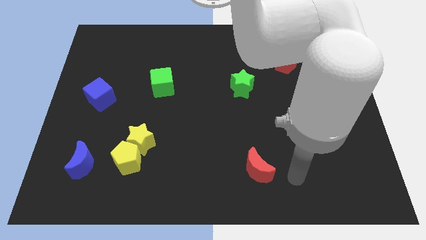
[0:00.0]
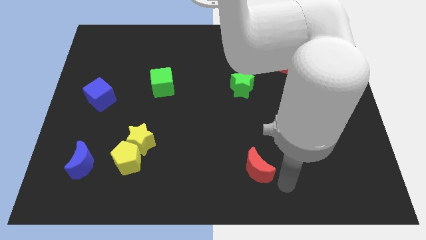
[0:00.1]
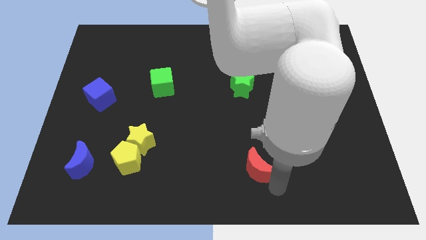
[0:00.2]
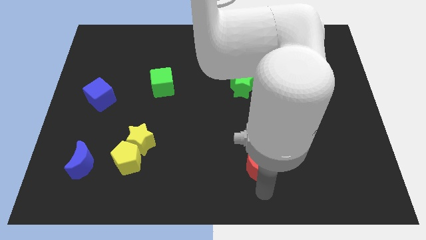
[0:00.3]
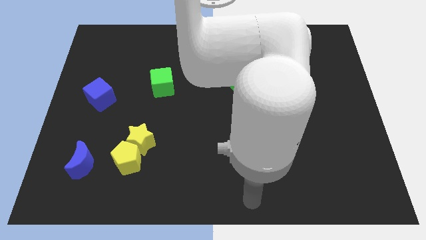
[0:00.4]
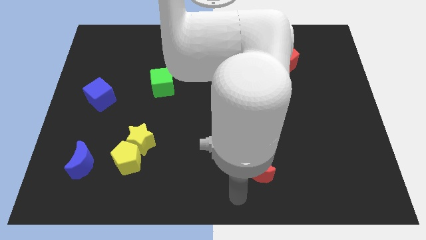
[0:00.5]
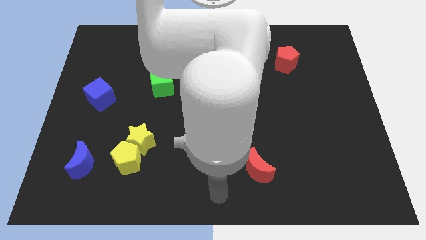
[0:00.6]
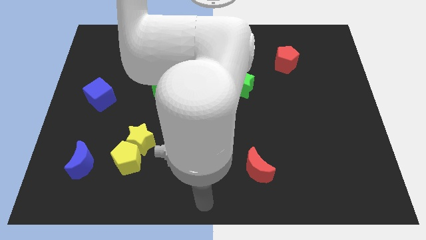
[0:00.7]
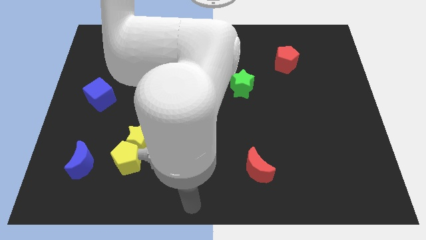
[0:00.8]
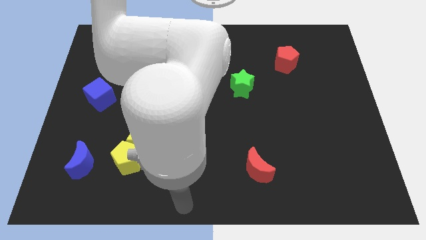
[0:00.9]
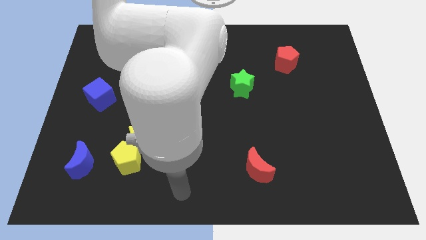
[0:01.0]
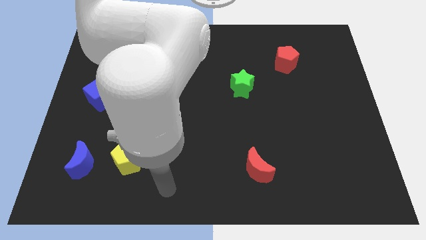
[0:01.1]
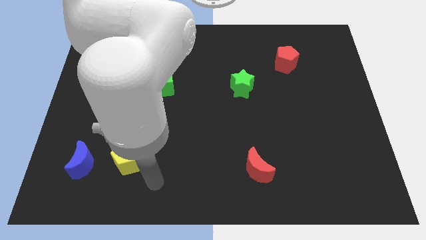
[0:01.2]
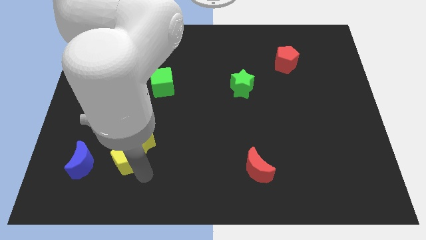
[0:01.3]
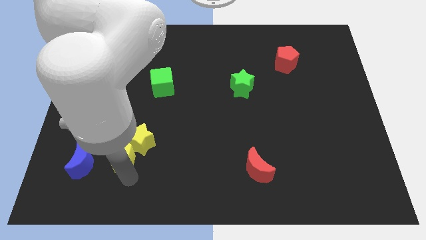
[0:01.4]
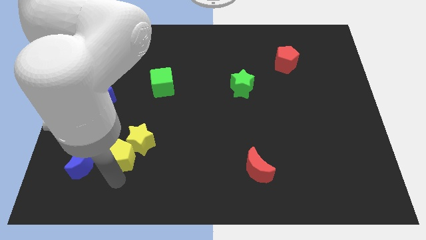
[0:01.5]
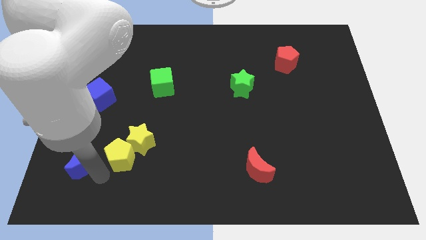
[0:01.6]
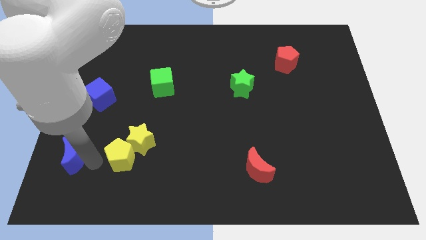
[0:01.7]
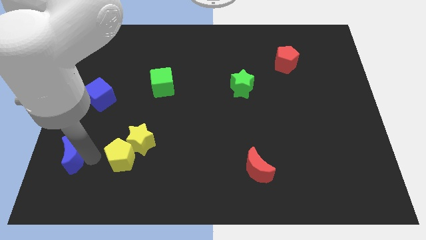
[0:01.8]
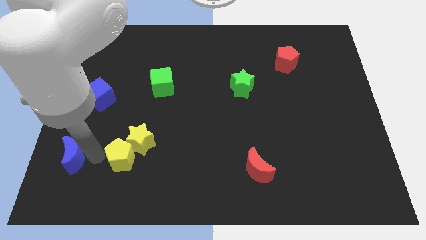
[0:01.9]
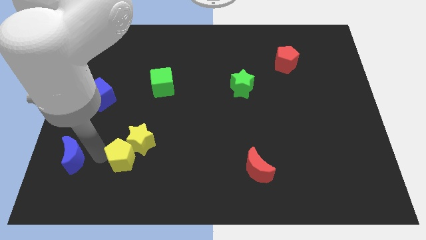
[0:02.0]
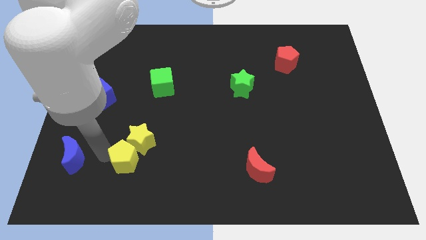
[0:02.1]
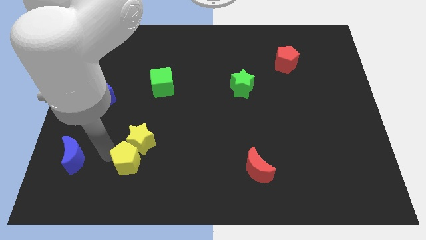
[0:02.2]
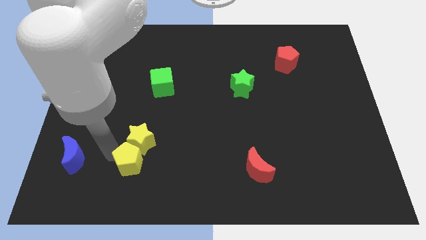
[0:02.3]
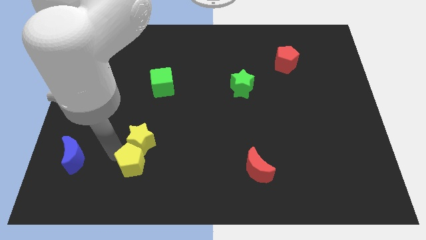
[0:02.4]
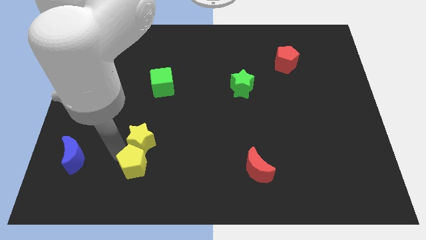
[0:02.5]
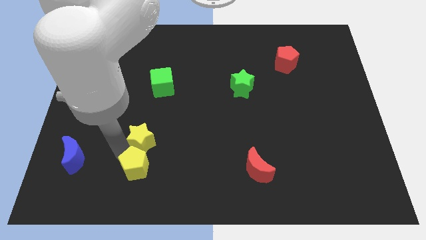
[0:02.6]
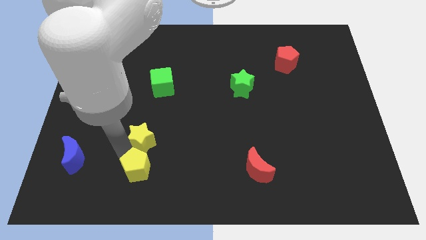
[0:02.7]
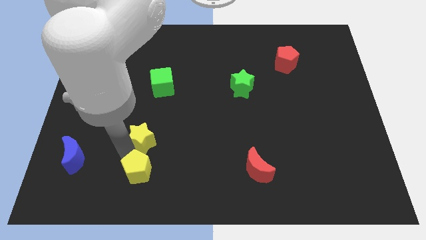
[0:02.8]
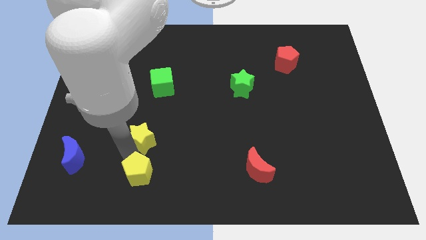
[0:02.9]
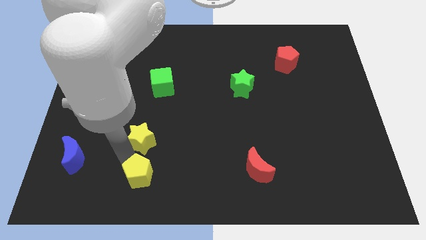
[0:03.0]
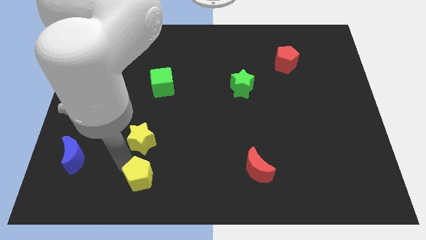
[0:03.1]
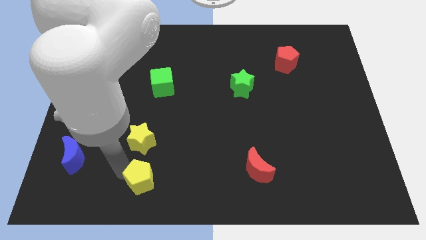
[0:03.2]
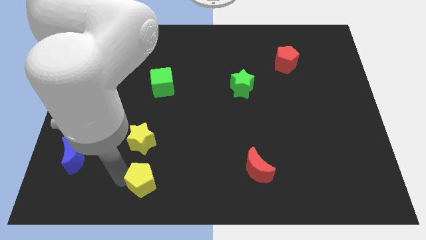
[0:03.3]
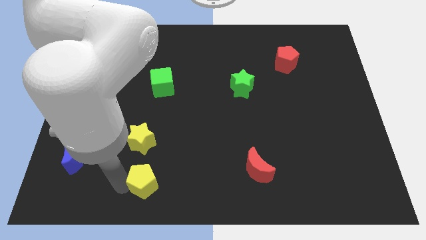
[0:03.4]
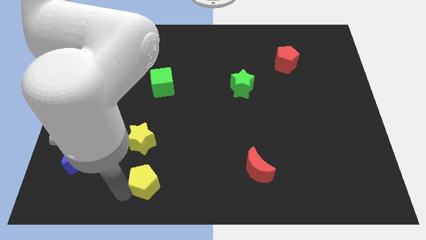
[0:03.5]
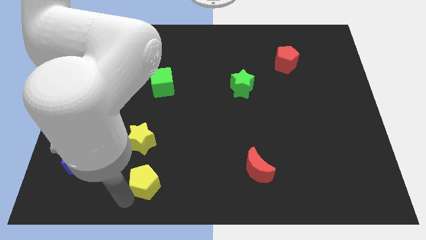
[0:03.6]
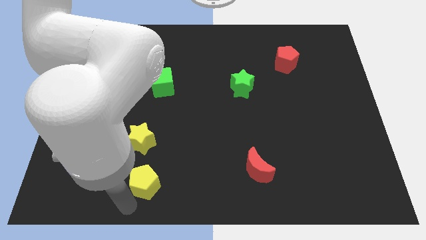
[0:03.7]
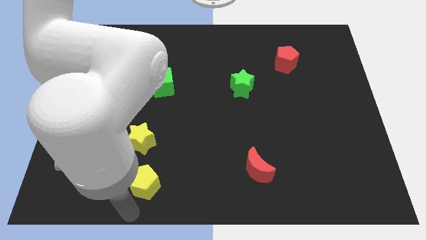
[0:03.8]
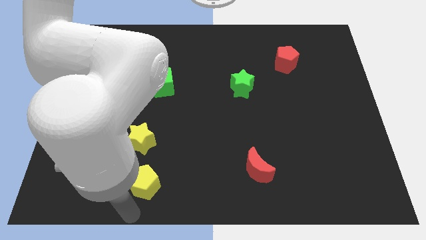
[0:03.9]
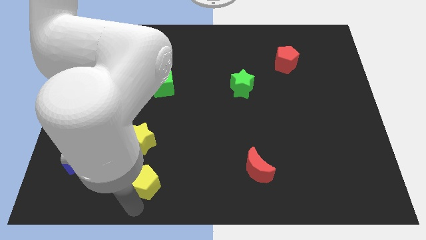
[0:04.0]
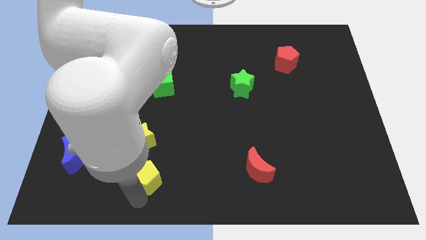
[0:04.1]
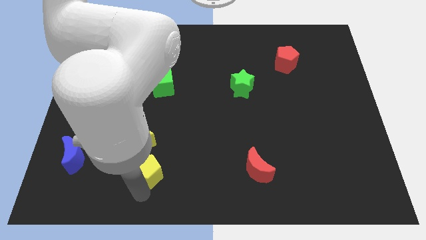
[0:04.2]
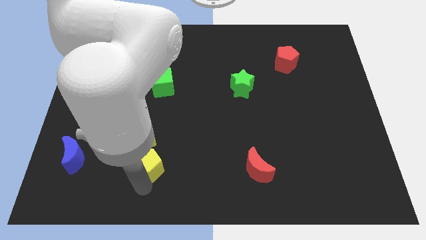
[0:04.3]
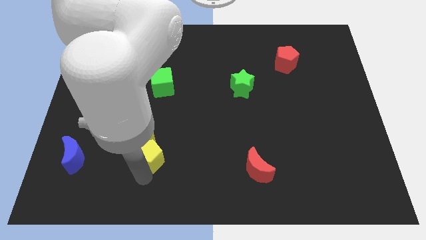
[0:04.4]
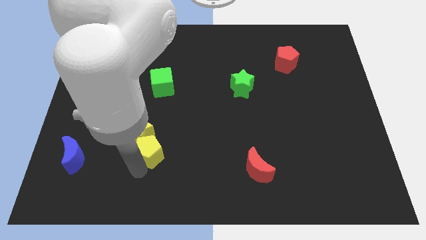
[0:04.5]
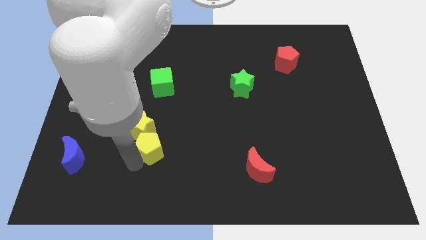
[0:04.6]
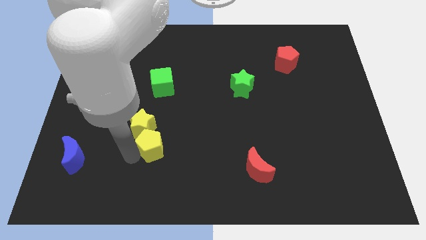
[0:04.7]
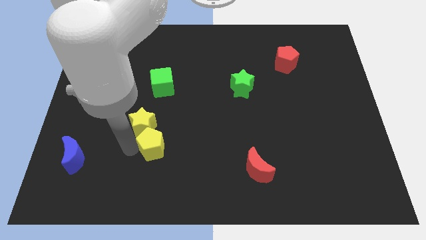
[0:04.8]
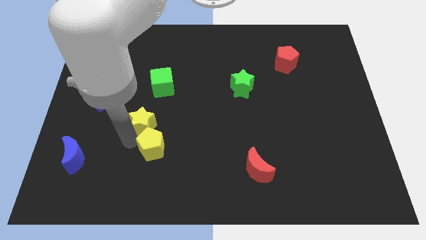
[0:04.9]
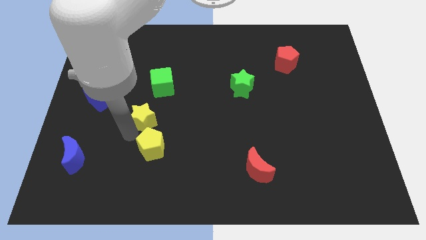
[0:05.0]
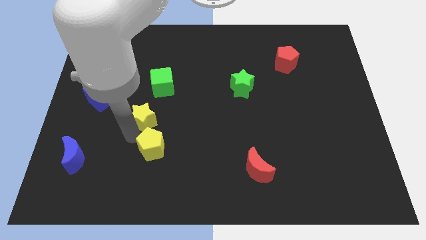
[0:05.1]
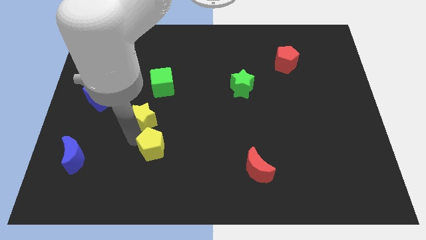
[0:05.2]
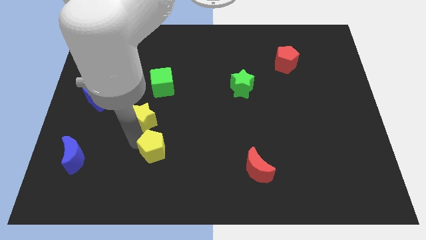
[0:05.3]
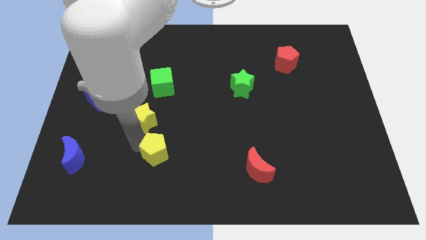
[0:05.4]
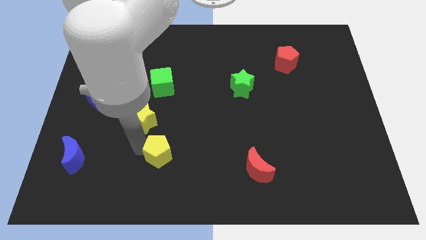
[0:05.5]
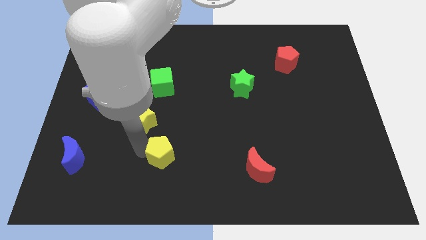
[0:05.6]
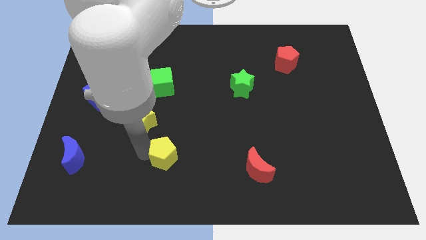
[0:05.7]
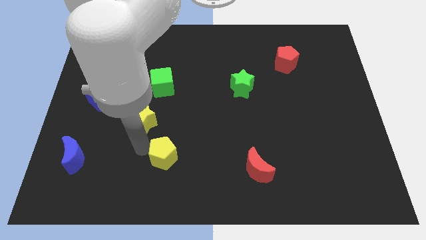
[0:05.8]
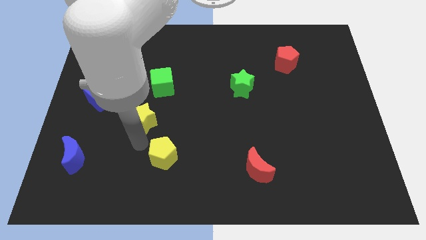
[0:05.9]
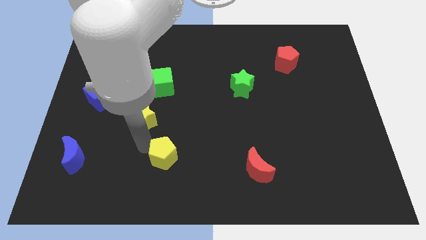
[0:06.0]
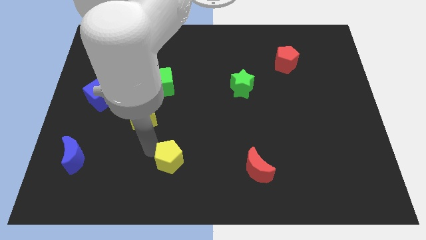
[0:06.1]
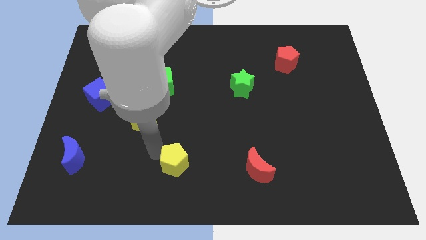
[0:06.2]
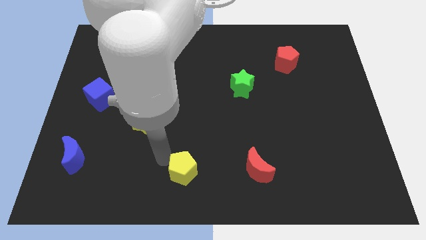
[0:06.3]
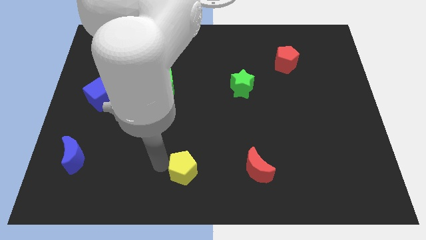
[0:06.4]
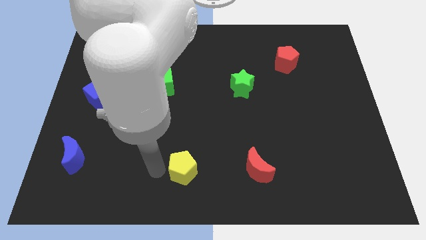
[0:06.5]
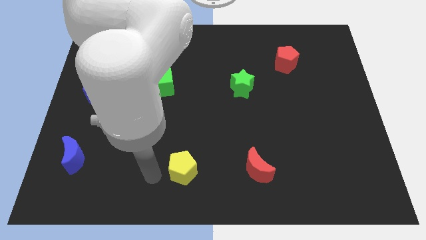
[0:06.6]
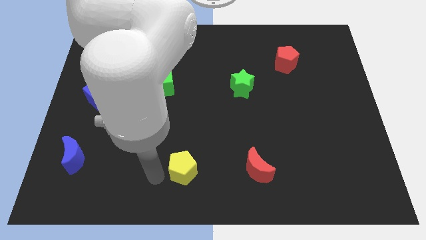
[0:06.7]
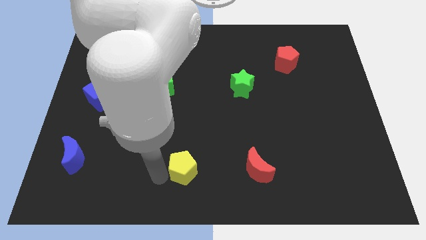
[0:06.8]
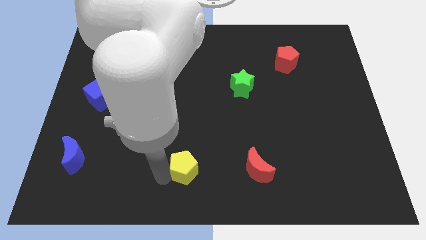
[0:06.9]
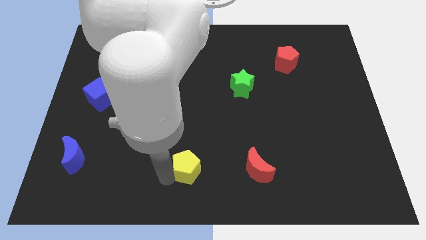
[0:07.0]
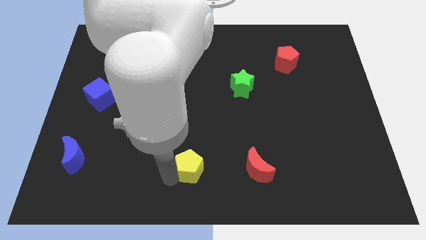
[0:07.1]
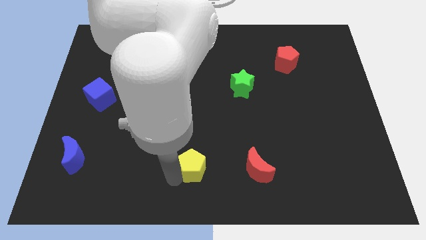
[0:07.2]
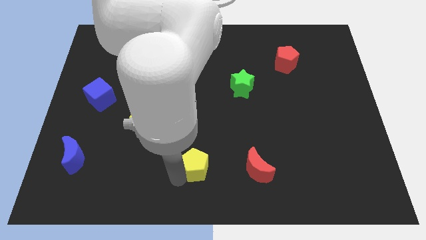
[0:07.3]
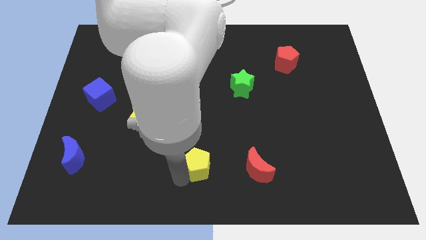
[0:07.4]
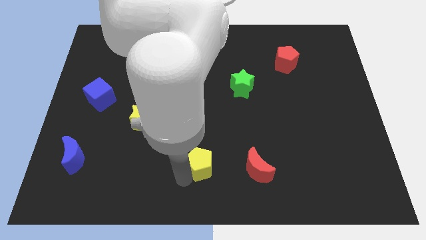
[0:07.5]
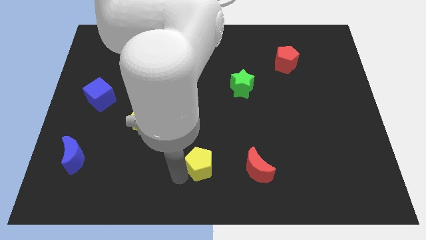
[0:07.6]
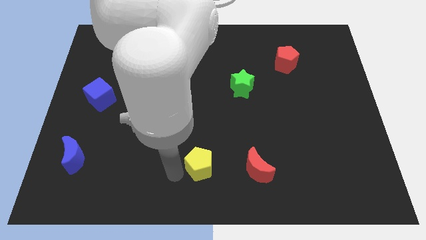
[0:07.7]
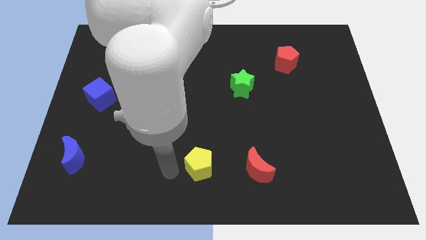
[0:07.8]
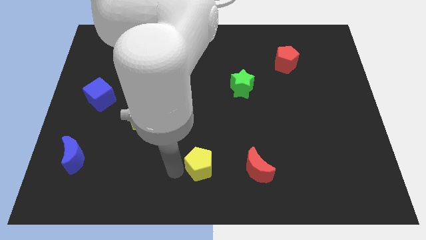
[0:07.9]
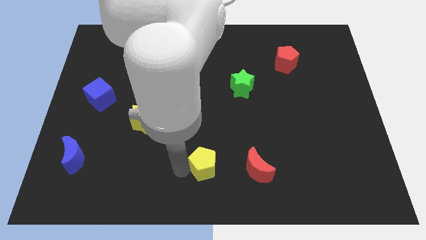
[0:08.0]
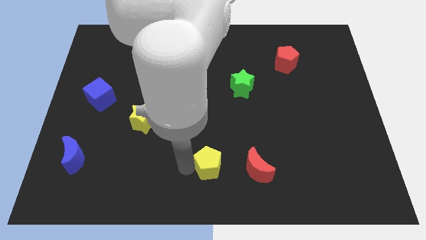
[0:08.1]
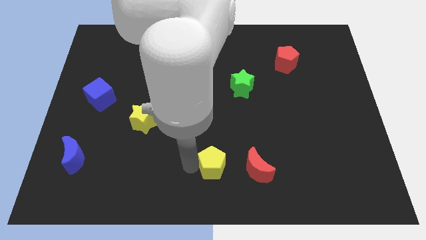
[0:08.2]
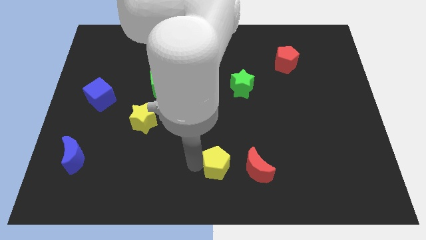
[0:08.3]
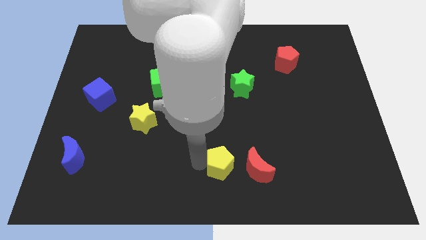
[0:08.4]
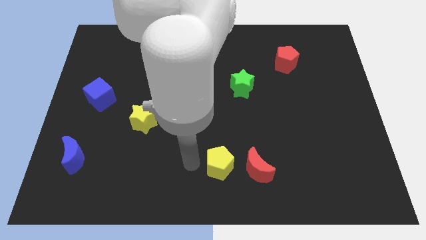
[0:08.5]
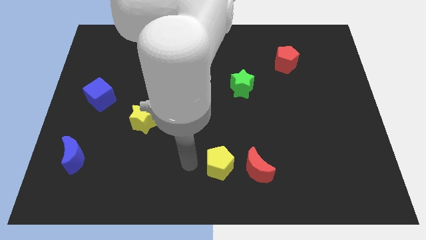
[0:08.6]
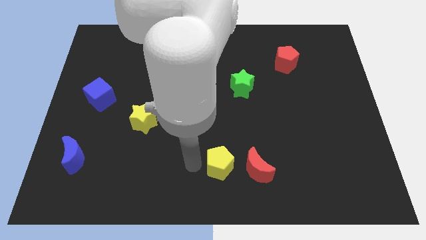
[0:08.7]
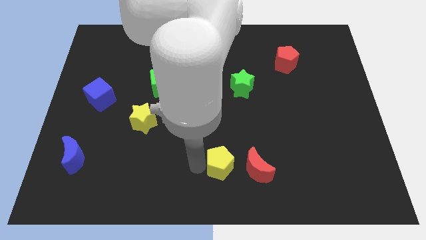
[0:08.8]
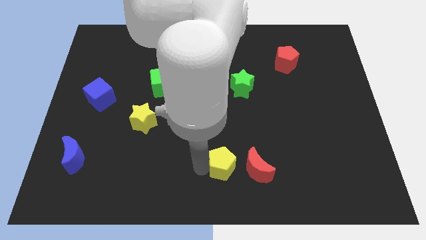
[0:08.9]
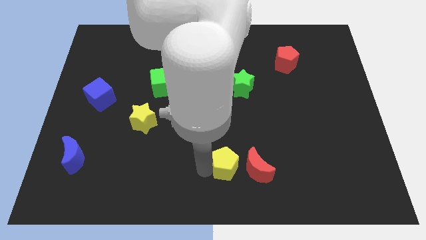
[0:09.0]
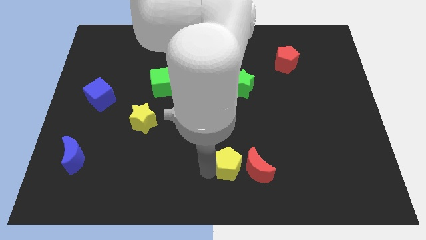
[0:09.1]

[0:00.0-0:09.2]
push the yellow pentagon towards the red moon
